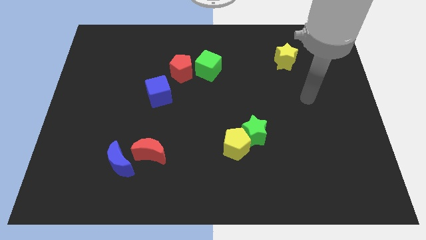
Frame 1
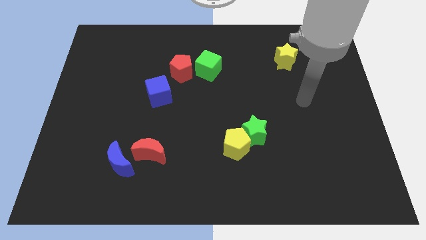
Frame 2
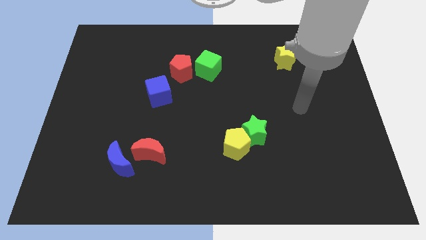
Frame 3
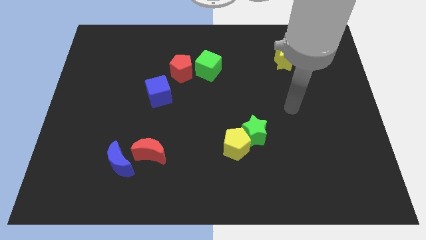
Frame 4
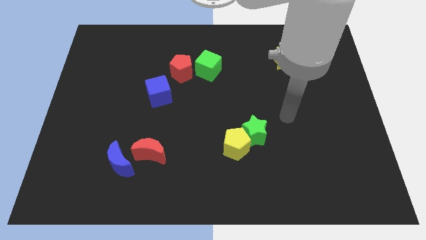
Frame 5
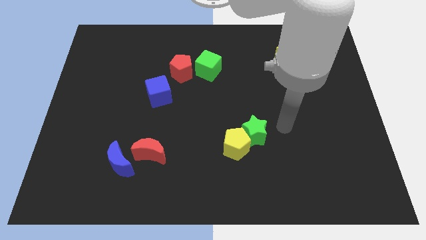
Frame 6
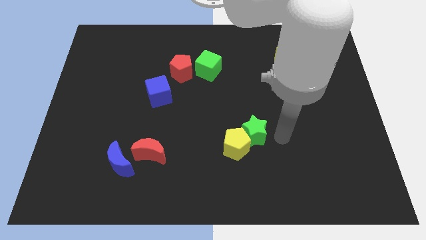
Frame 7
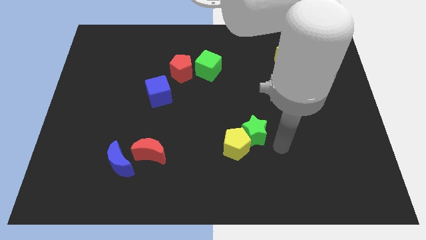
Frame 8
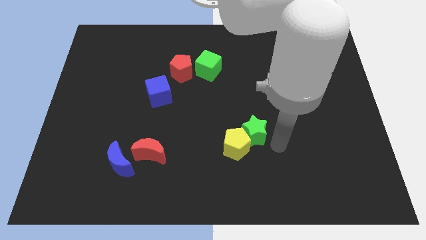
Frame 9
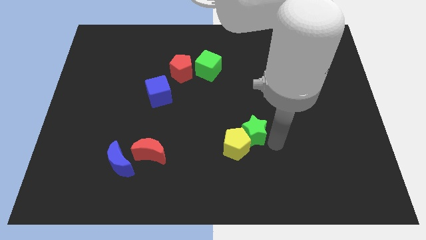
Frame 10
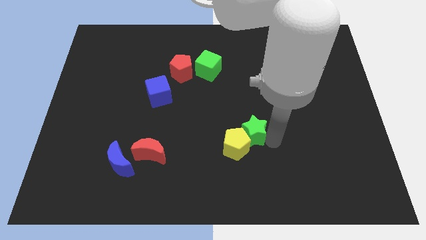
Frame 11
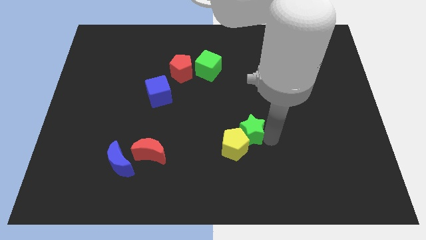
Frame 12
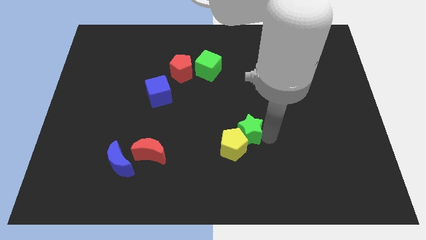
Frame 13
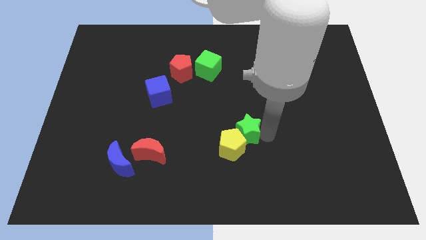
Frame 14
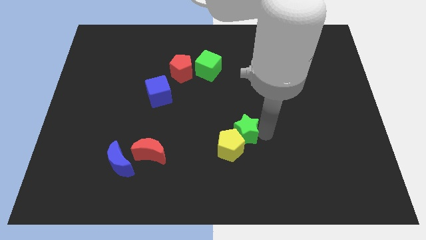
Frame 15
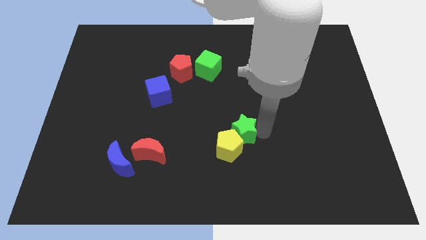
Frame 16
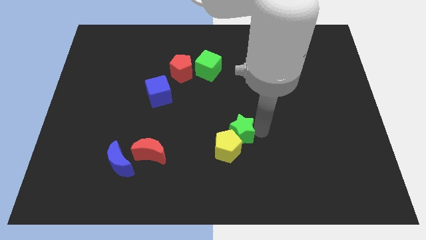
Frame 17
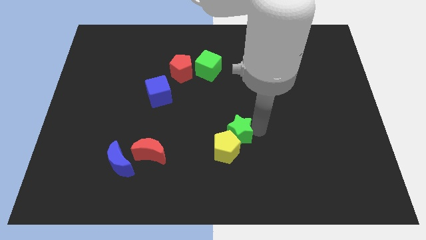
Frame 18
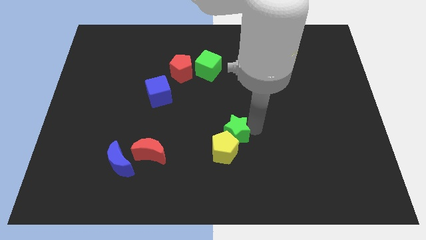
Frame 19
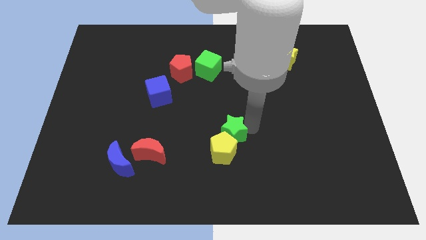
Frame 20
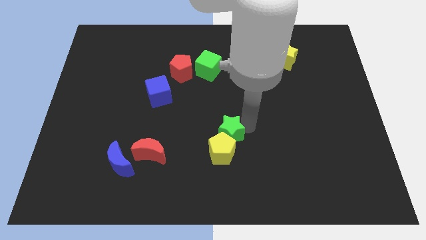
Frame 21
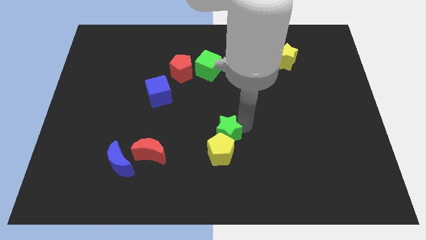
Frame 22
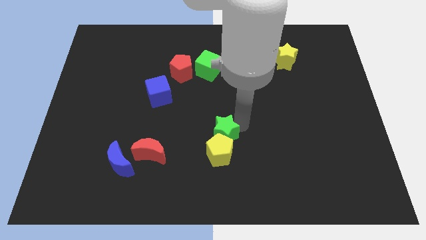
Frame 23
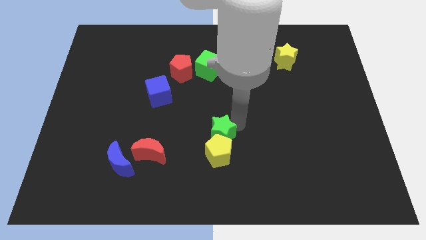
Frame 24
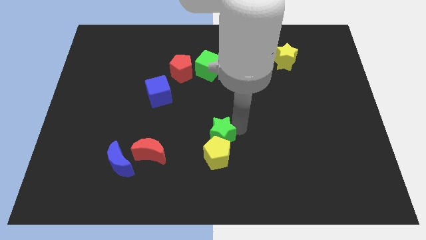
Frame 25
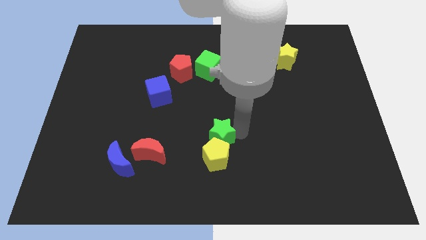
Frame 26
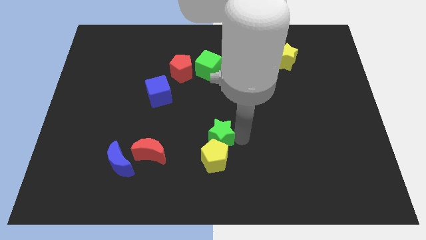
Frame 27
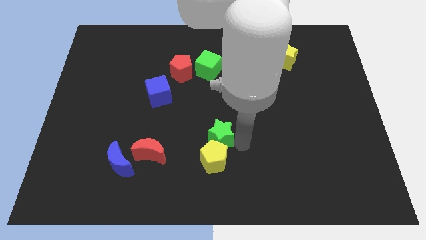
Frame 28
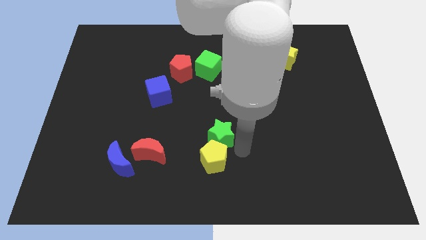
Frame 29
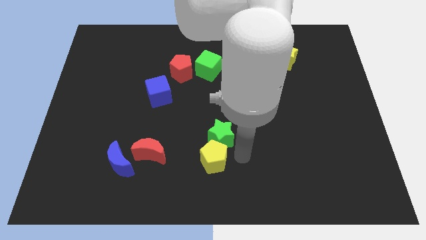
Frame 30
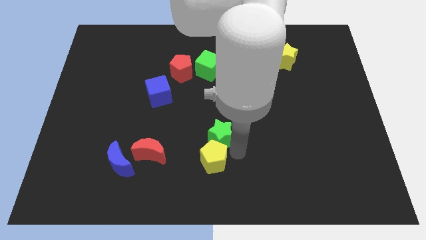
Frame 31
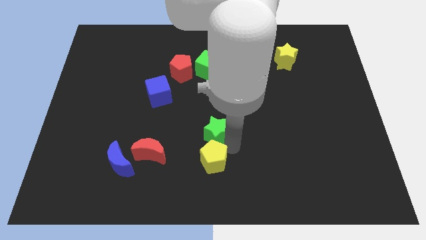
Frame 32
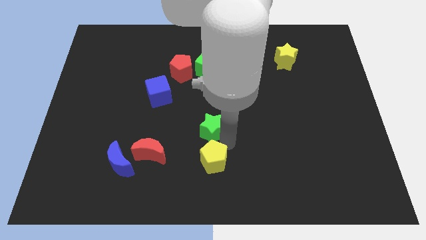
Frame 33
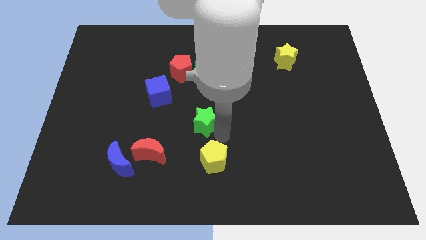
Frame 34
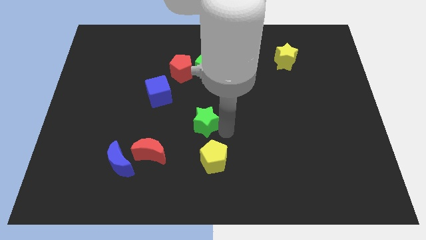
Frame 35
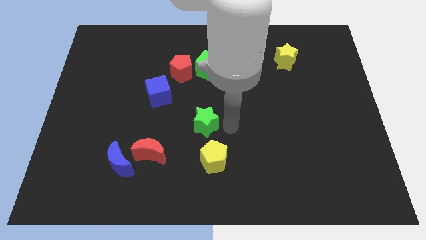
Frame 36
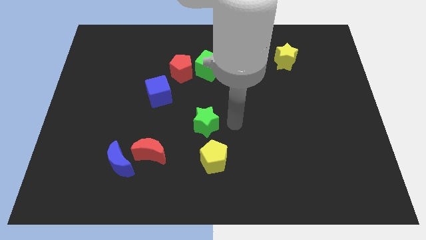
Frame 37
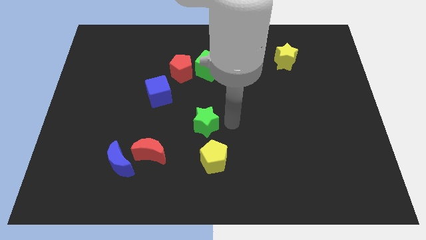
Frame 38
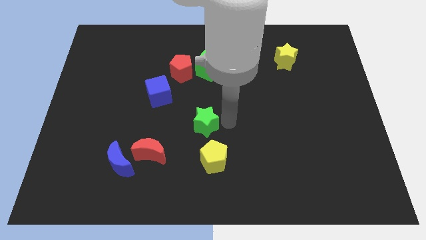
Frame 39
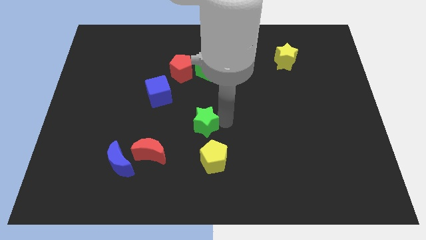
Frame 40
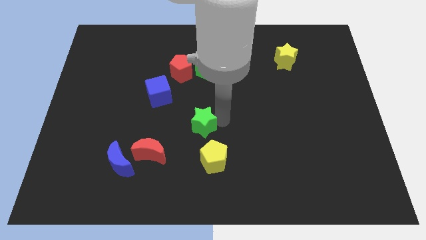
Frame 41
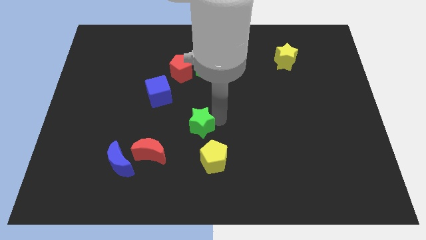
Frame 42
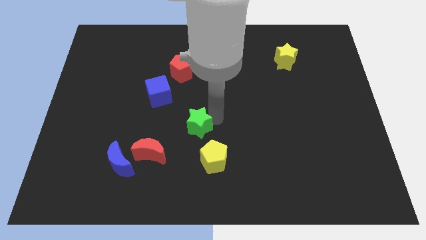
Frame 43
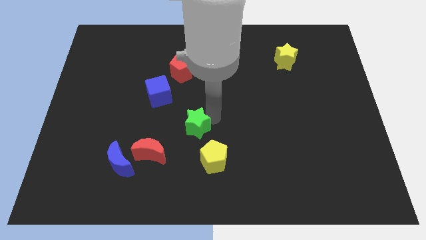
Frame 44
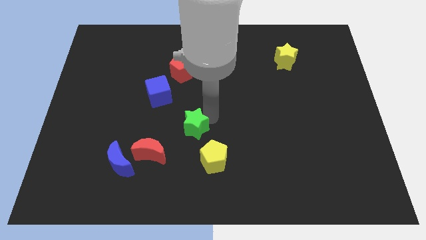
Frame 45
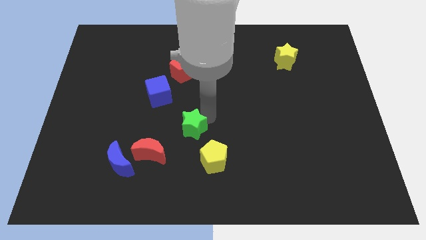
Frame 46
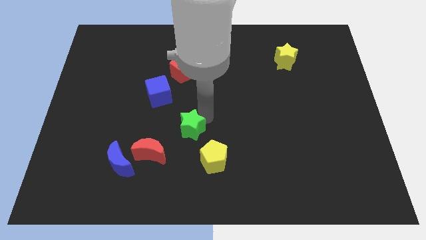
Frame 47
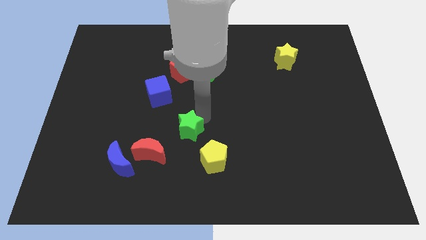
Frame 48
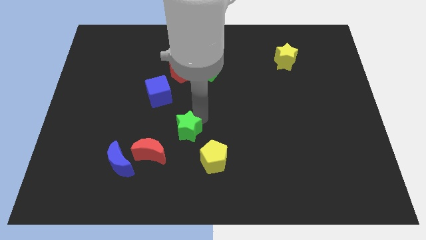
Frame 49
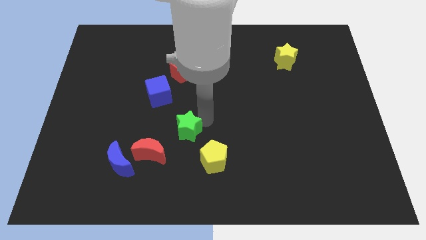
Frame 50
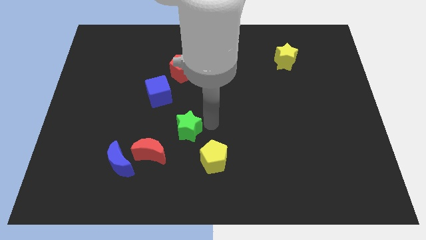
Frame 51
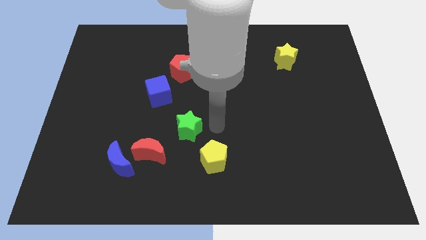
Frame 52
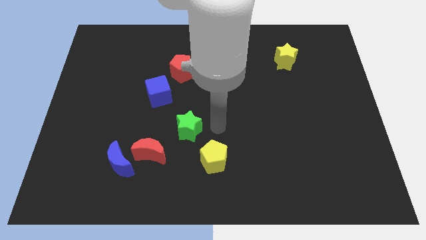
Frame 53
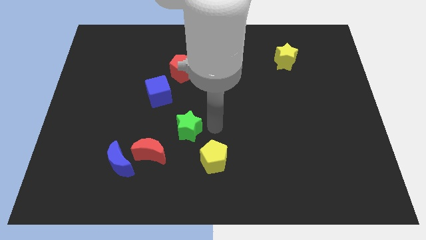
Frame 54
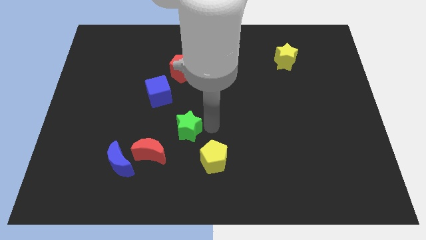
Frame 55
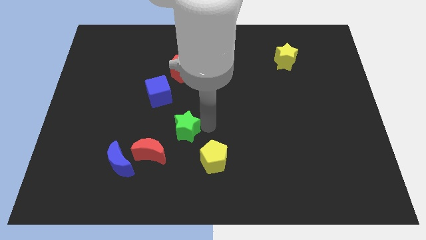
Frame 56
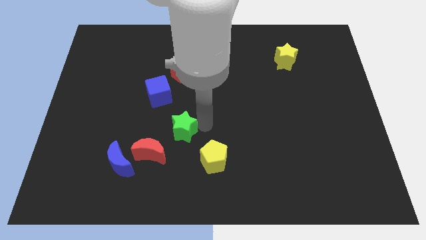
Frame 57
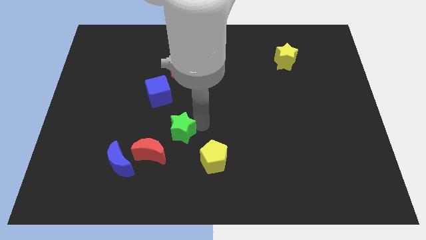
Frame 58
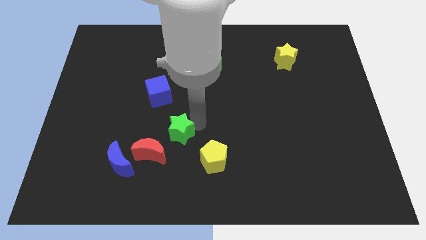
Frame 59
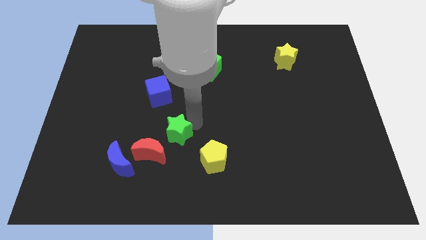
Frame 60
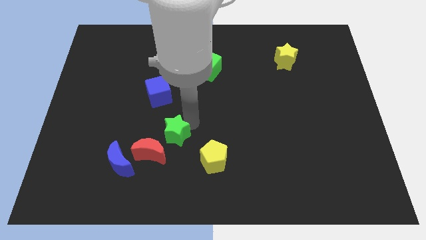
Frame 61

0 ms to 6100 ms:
put the green star to the bottom of the blue cube

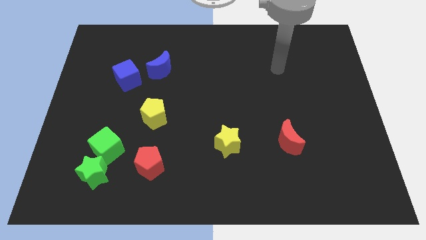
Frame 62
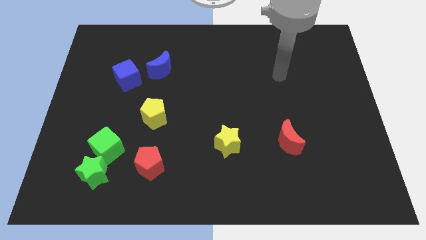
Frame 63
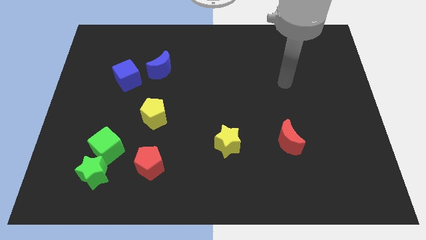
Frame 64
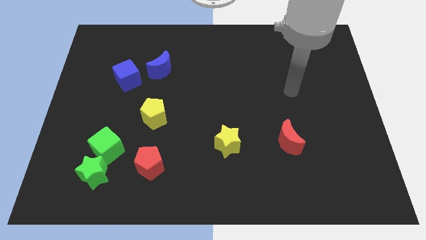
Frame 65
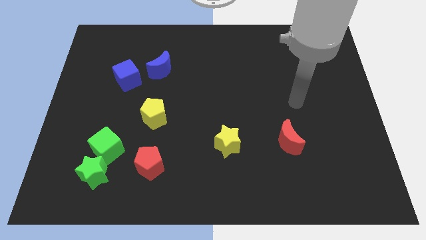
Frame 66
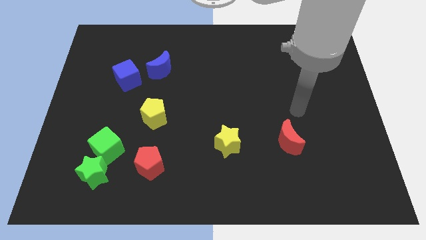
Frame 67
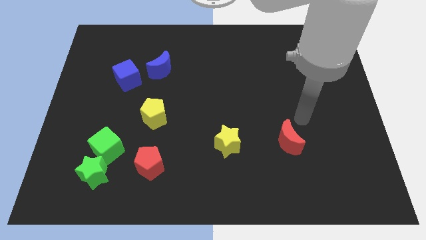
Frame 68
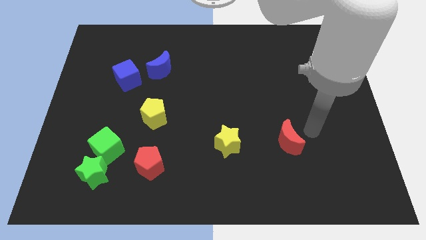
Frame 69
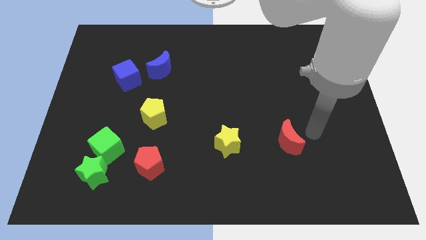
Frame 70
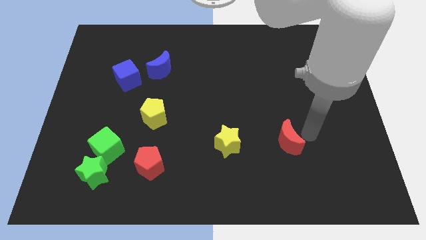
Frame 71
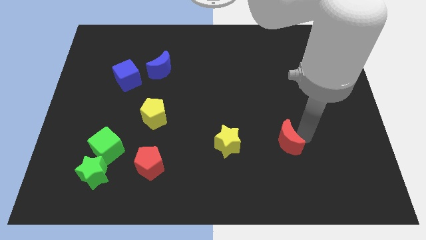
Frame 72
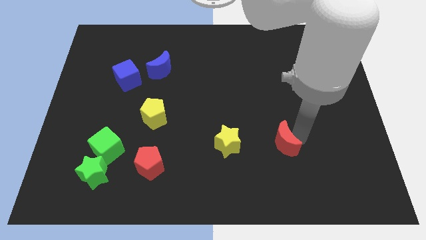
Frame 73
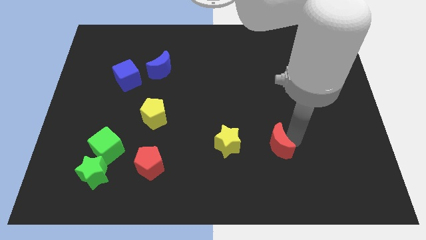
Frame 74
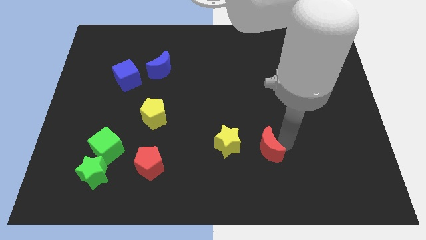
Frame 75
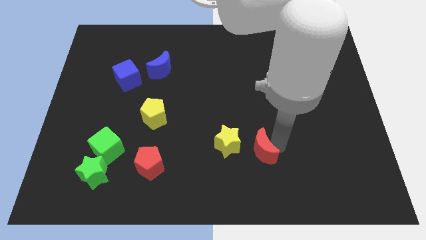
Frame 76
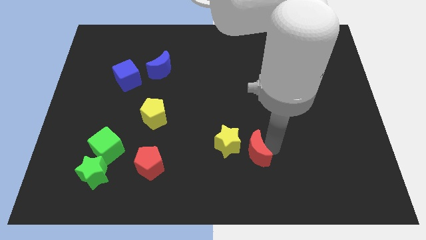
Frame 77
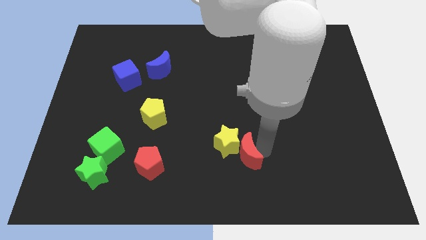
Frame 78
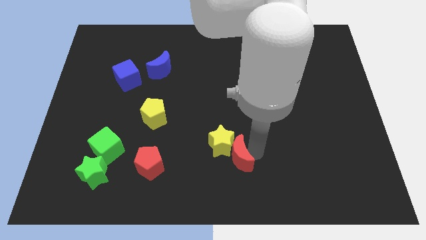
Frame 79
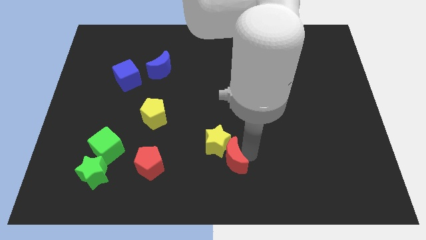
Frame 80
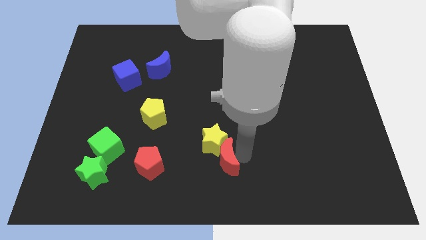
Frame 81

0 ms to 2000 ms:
slide the red moon right of the red pentagon
